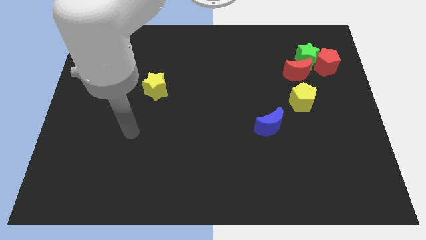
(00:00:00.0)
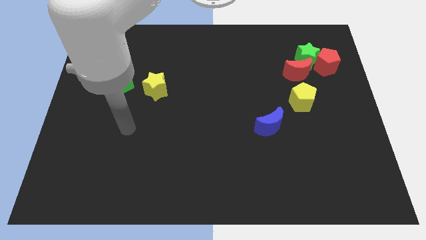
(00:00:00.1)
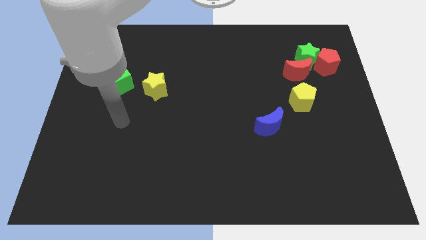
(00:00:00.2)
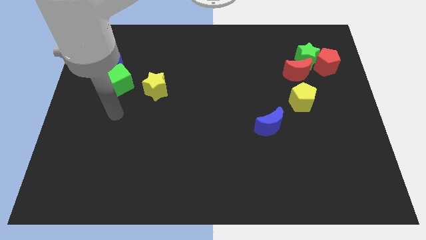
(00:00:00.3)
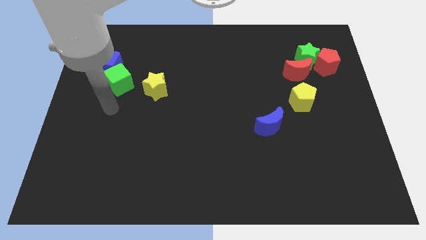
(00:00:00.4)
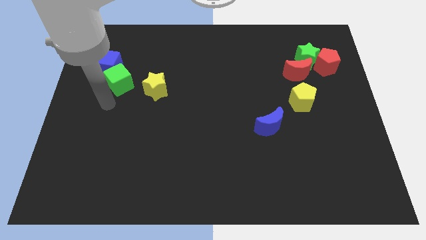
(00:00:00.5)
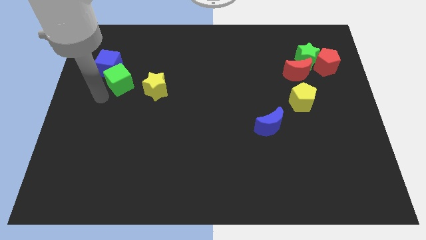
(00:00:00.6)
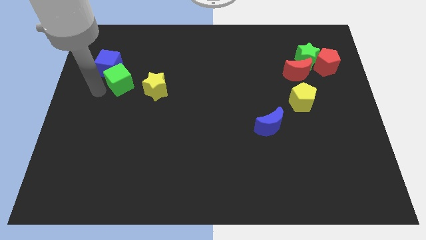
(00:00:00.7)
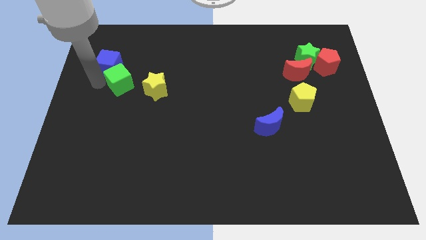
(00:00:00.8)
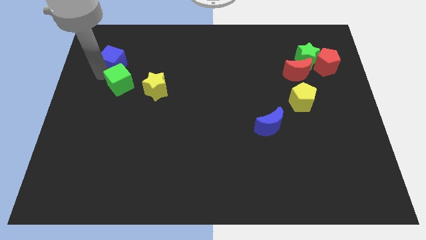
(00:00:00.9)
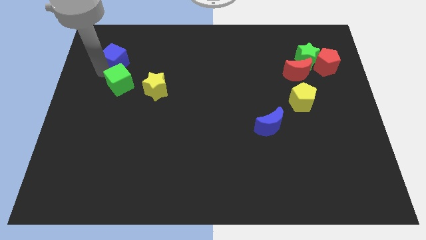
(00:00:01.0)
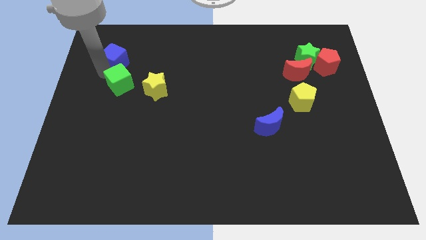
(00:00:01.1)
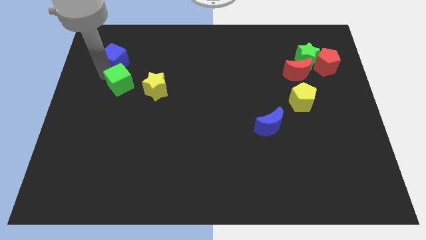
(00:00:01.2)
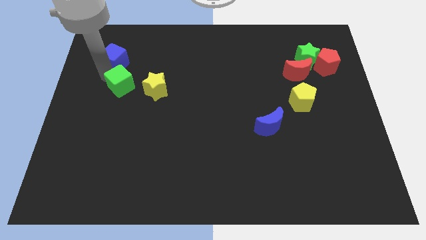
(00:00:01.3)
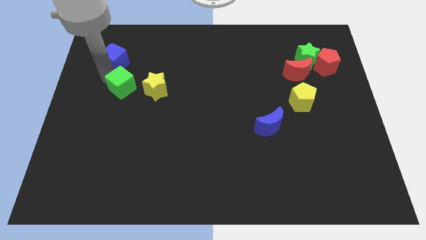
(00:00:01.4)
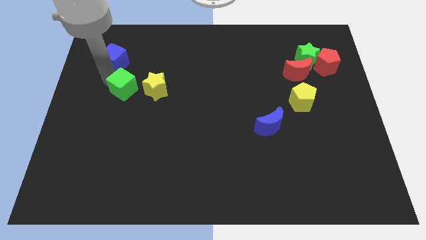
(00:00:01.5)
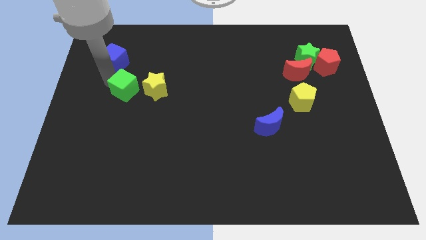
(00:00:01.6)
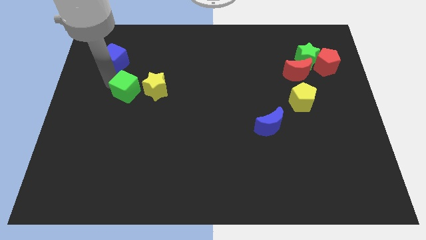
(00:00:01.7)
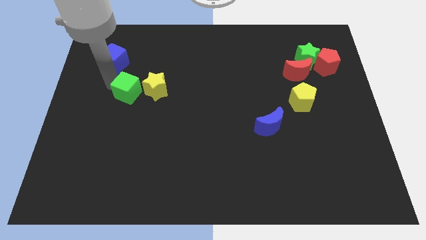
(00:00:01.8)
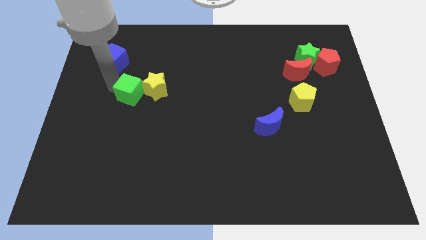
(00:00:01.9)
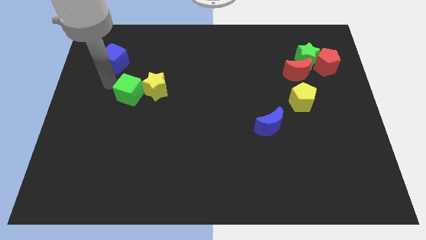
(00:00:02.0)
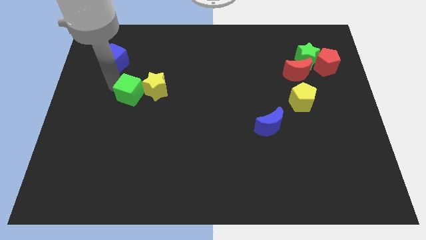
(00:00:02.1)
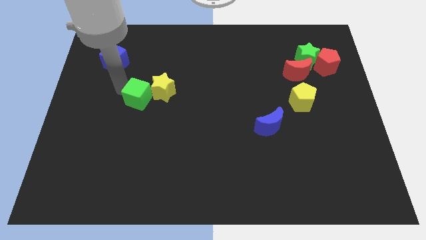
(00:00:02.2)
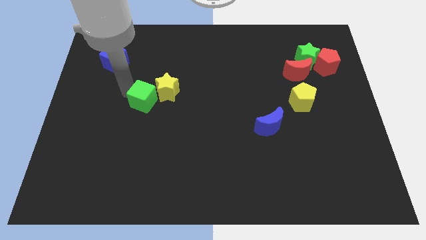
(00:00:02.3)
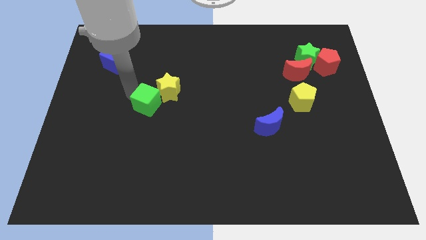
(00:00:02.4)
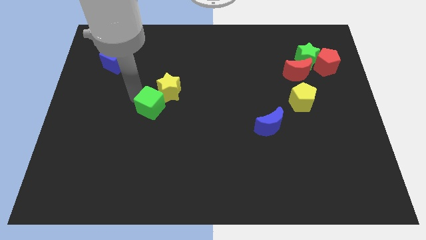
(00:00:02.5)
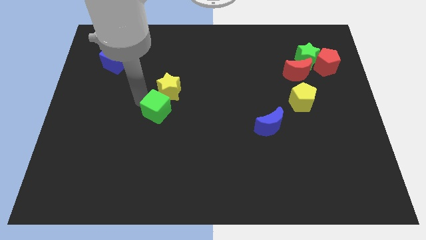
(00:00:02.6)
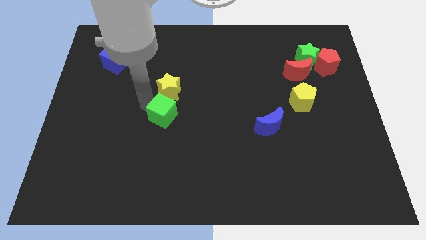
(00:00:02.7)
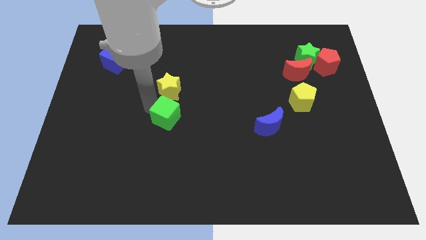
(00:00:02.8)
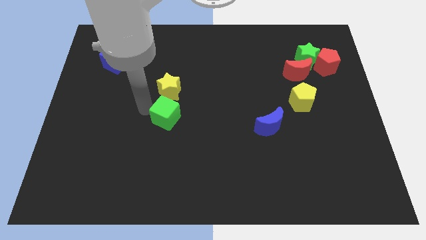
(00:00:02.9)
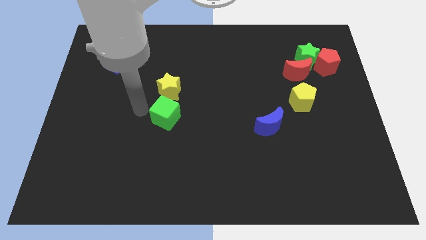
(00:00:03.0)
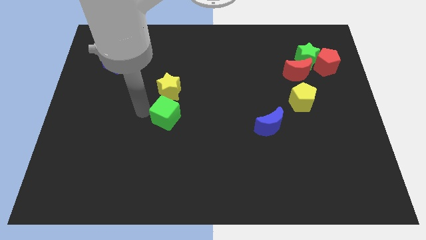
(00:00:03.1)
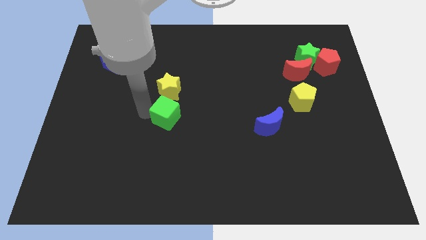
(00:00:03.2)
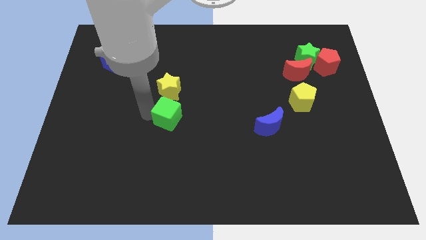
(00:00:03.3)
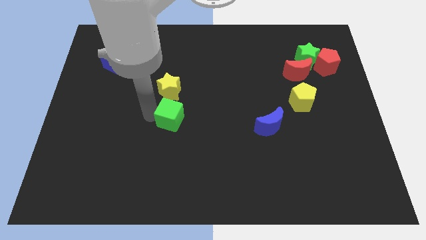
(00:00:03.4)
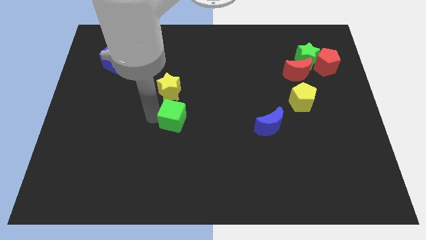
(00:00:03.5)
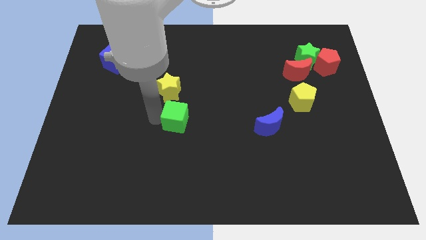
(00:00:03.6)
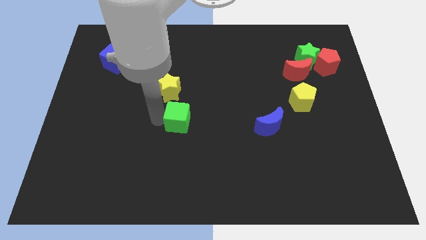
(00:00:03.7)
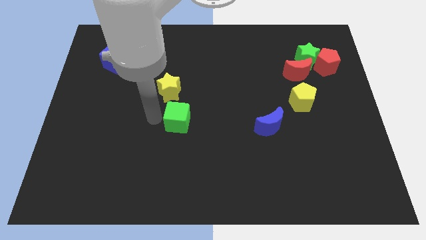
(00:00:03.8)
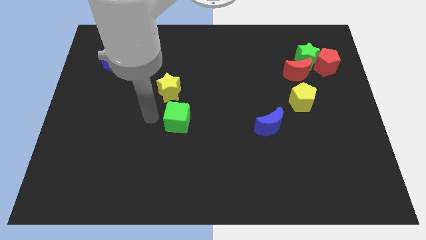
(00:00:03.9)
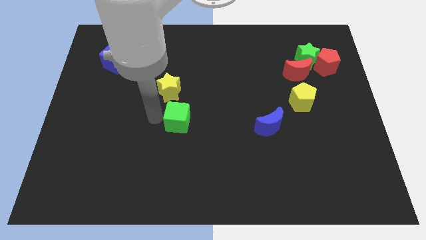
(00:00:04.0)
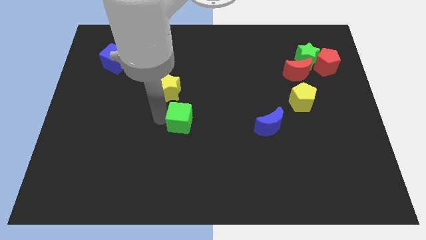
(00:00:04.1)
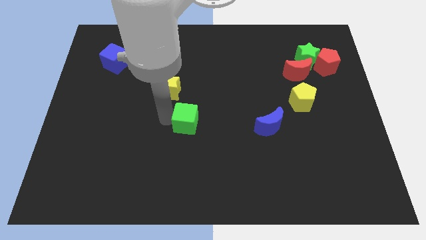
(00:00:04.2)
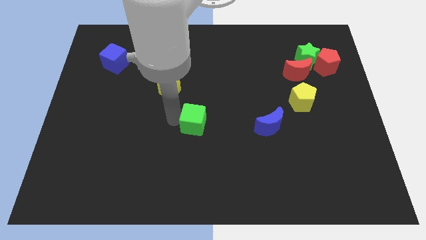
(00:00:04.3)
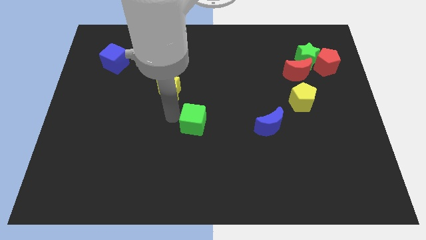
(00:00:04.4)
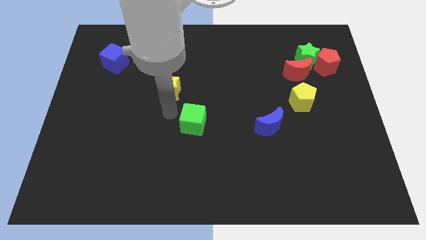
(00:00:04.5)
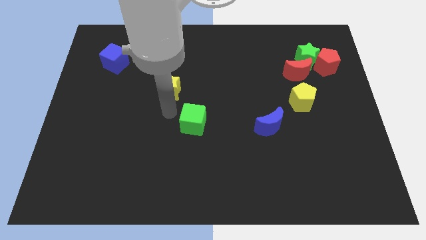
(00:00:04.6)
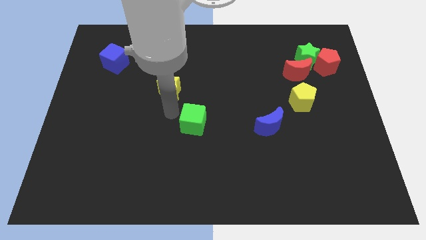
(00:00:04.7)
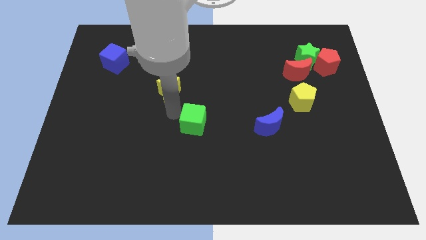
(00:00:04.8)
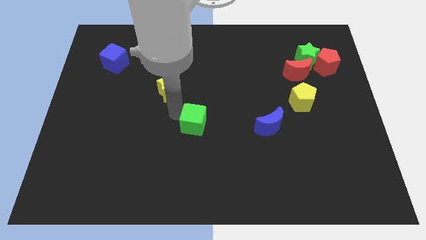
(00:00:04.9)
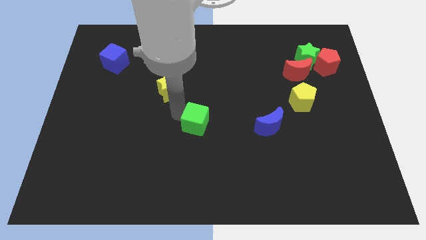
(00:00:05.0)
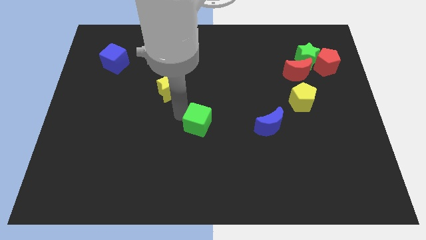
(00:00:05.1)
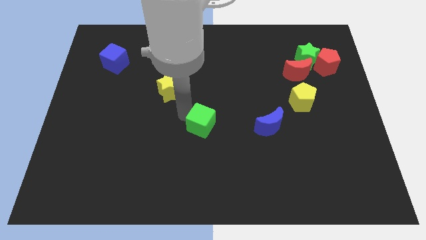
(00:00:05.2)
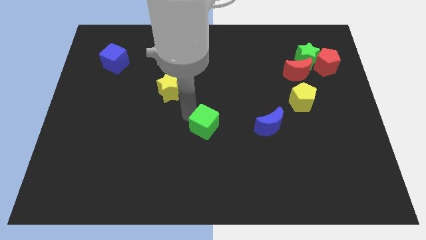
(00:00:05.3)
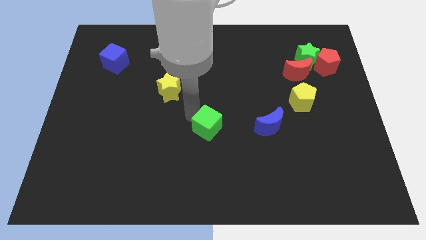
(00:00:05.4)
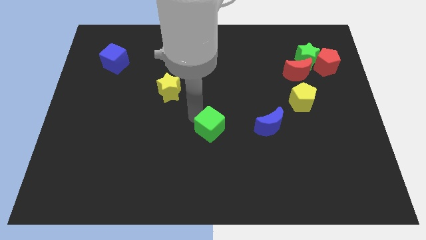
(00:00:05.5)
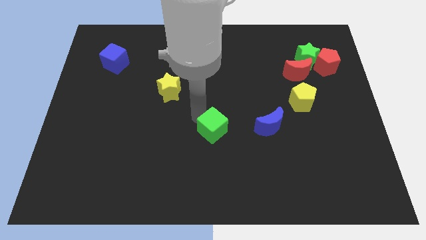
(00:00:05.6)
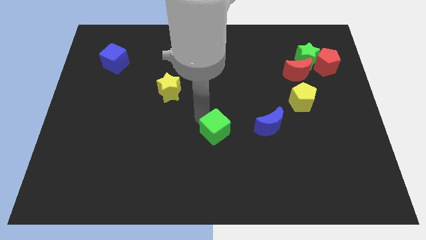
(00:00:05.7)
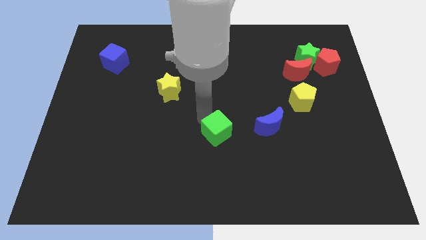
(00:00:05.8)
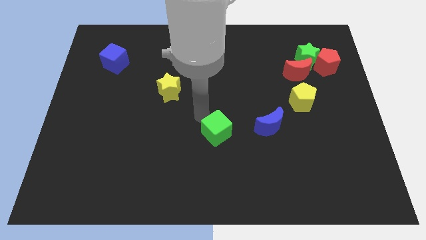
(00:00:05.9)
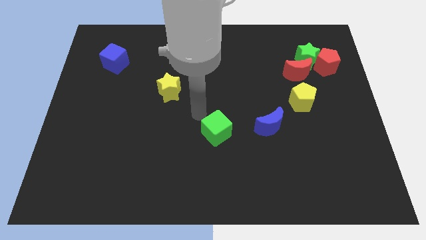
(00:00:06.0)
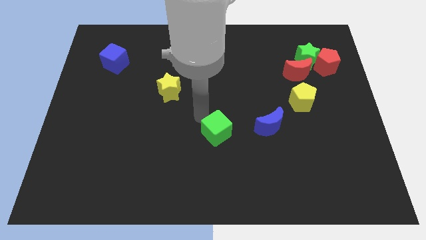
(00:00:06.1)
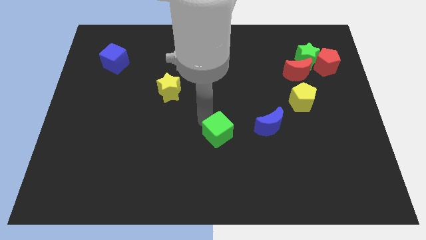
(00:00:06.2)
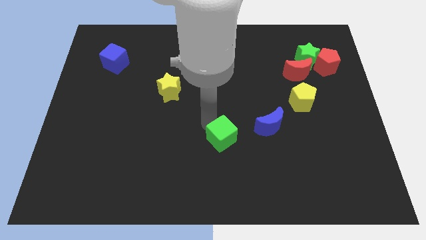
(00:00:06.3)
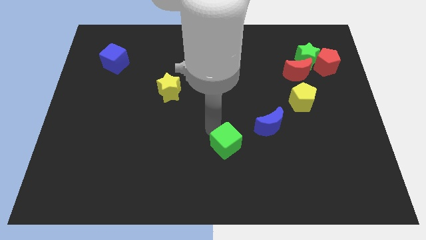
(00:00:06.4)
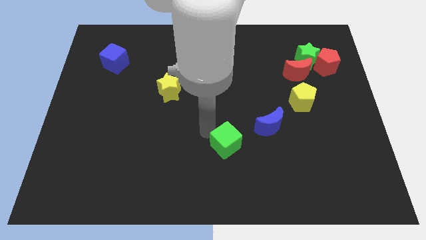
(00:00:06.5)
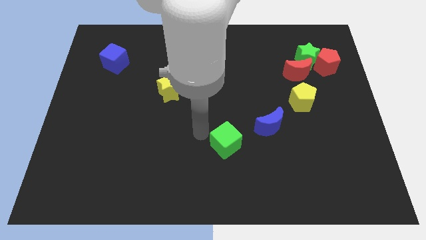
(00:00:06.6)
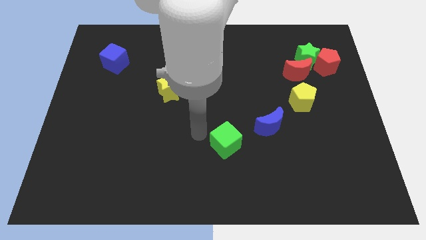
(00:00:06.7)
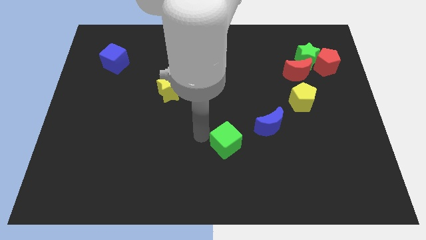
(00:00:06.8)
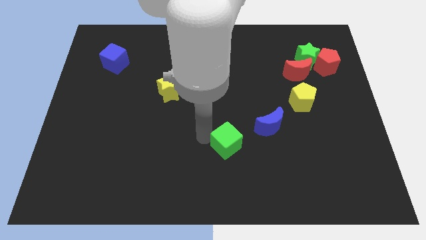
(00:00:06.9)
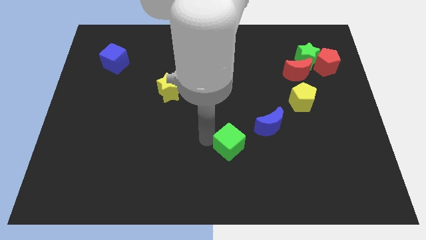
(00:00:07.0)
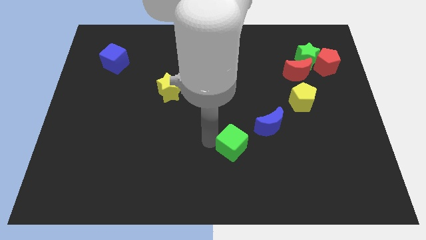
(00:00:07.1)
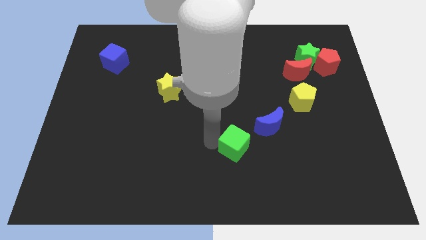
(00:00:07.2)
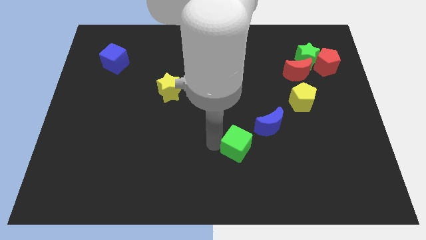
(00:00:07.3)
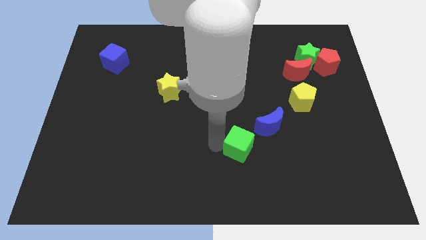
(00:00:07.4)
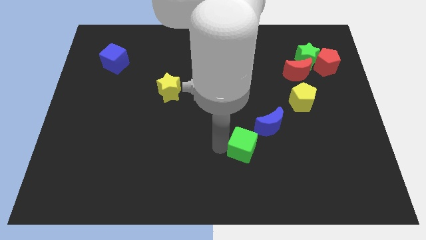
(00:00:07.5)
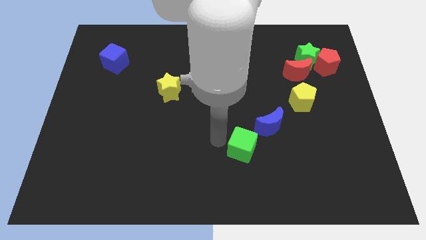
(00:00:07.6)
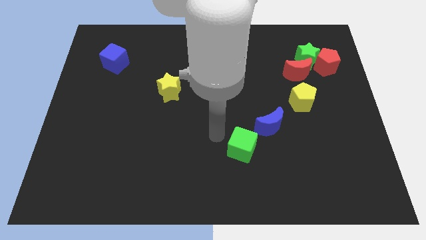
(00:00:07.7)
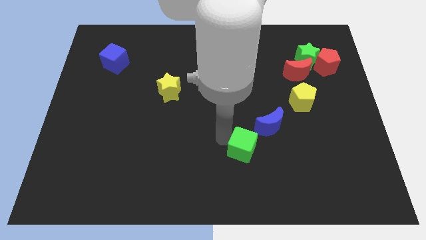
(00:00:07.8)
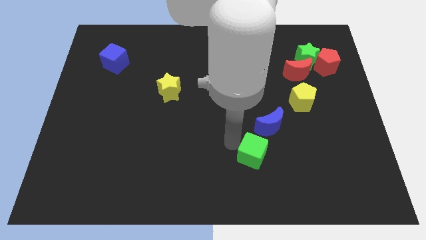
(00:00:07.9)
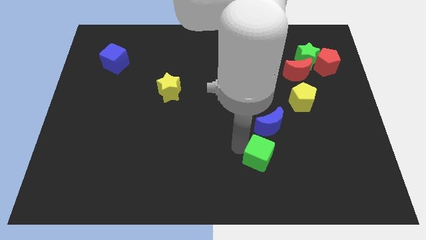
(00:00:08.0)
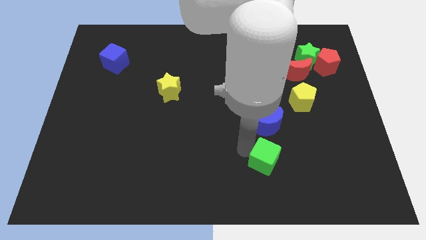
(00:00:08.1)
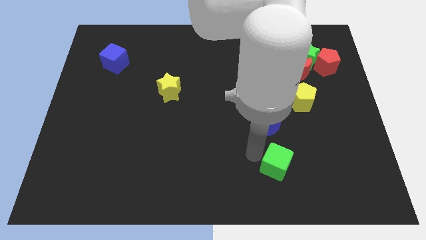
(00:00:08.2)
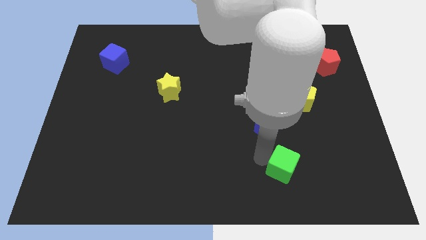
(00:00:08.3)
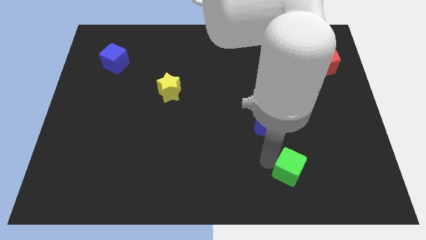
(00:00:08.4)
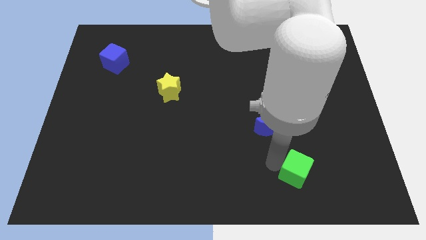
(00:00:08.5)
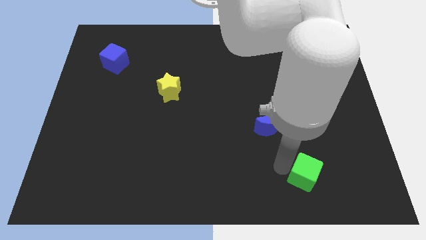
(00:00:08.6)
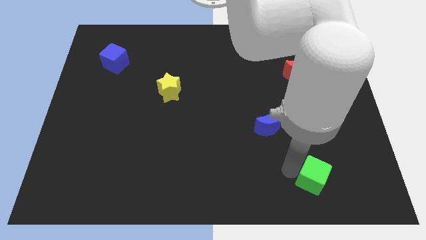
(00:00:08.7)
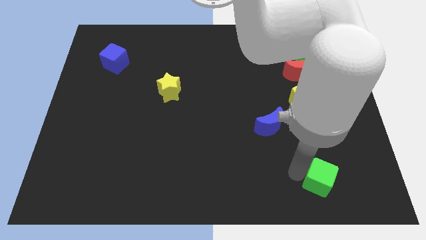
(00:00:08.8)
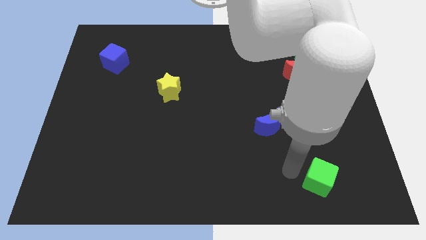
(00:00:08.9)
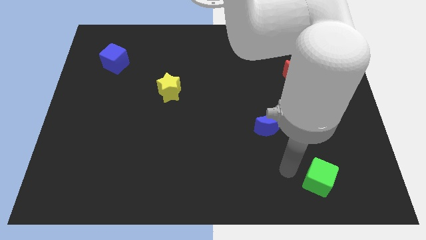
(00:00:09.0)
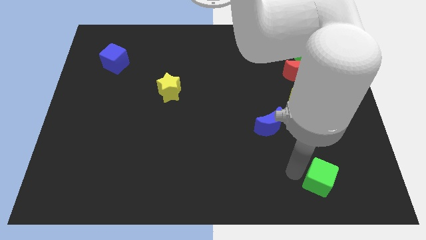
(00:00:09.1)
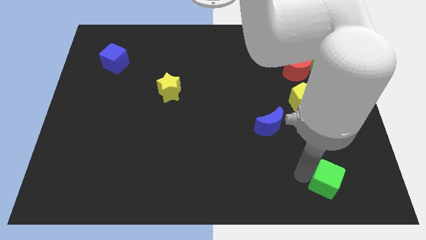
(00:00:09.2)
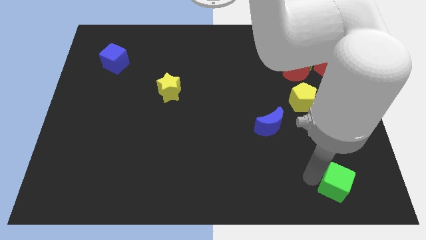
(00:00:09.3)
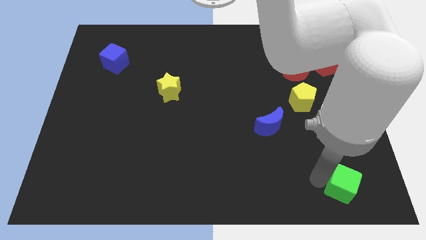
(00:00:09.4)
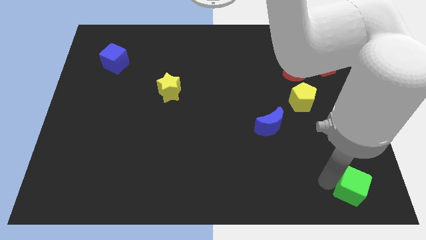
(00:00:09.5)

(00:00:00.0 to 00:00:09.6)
push the green cube to the bottom right corner
